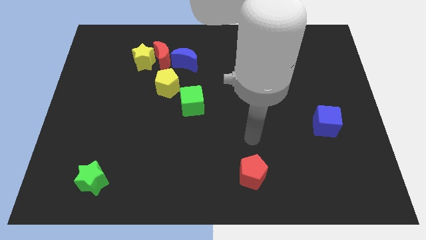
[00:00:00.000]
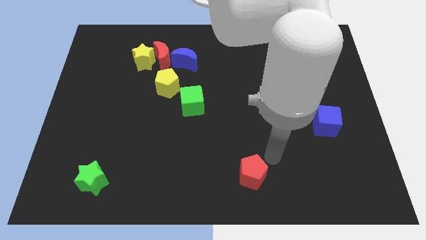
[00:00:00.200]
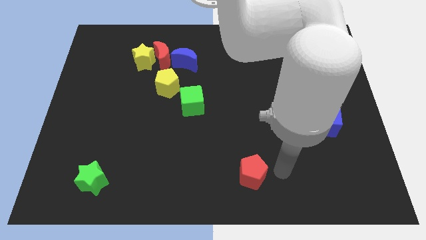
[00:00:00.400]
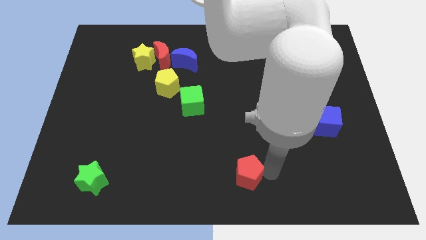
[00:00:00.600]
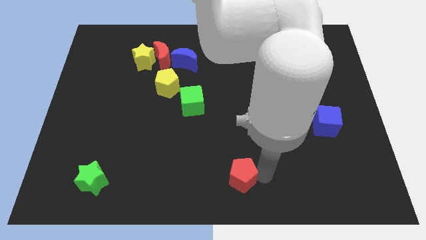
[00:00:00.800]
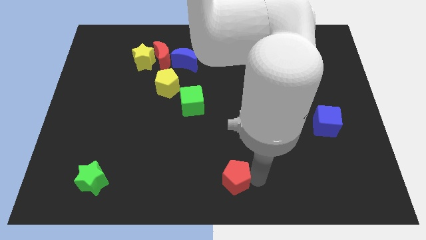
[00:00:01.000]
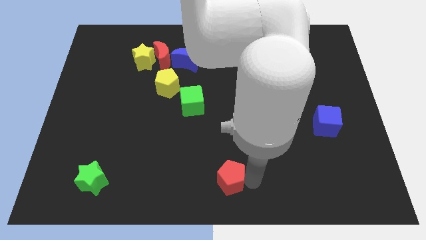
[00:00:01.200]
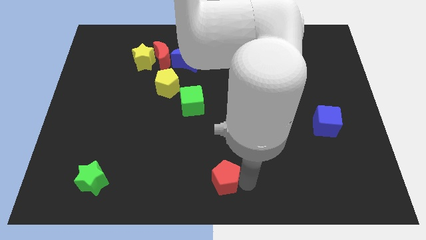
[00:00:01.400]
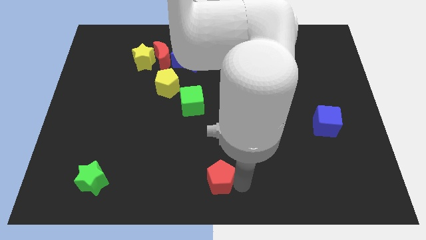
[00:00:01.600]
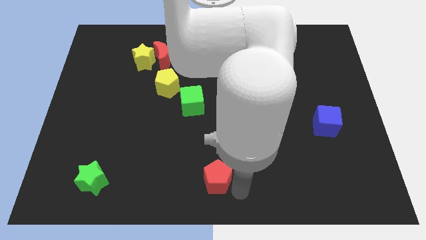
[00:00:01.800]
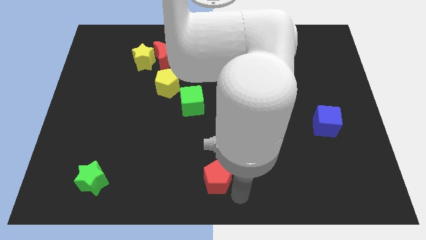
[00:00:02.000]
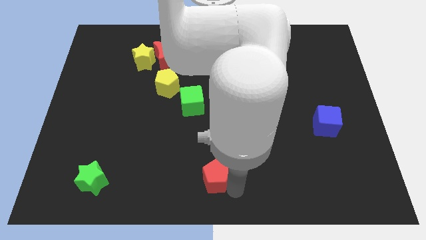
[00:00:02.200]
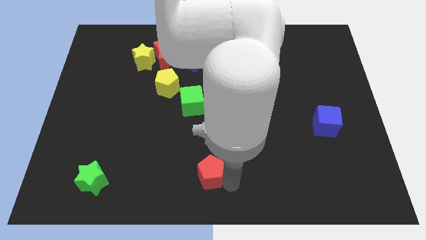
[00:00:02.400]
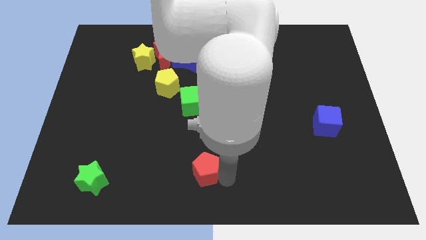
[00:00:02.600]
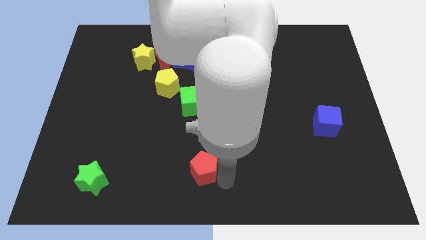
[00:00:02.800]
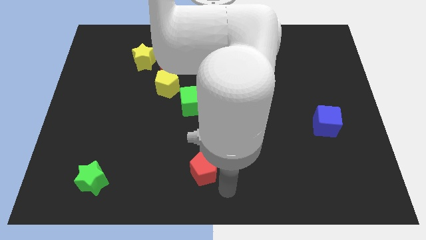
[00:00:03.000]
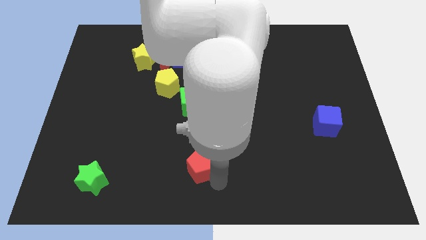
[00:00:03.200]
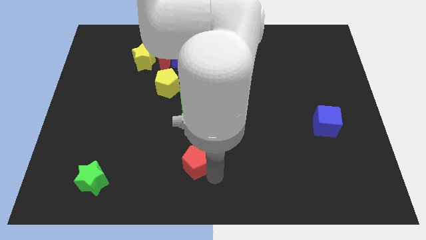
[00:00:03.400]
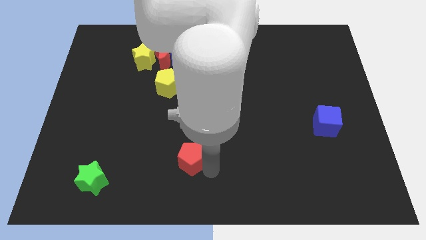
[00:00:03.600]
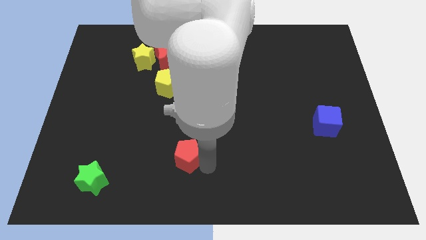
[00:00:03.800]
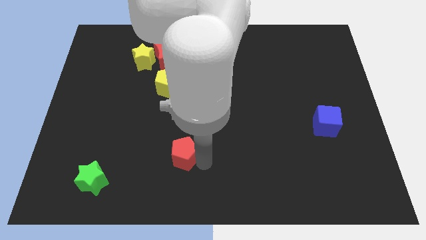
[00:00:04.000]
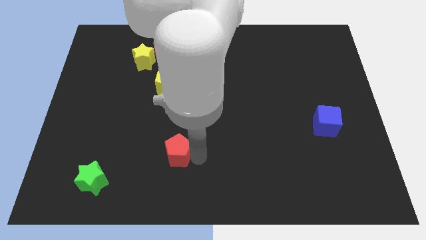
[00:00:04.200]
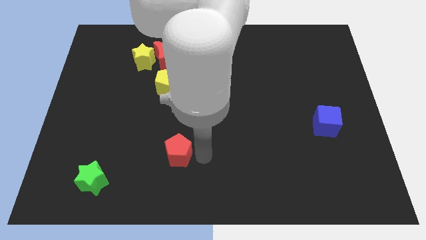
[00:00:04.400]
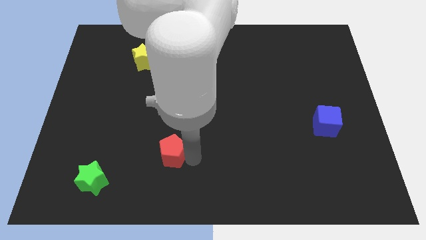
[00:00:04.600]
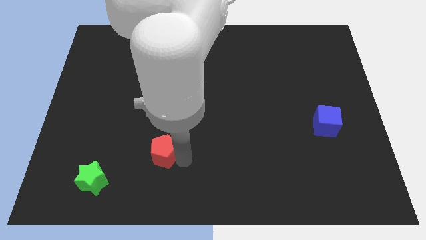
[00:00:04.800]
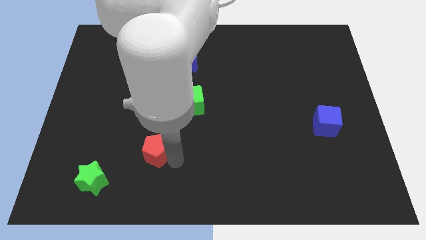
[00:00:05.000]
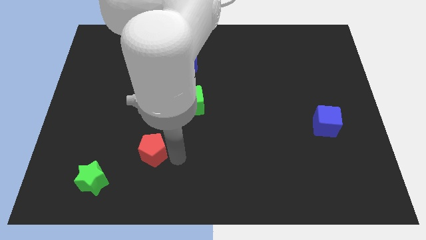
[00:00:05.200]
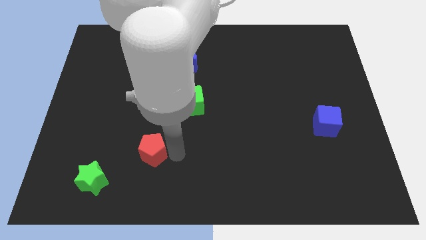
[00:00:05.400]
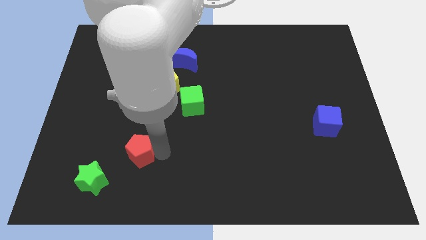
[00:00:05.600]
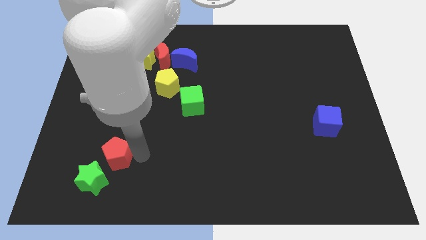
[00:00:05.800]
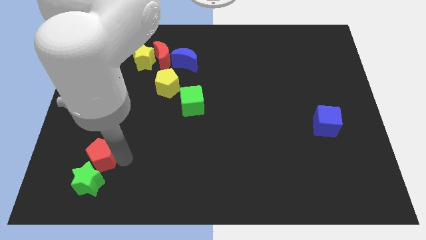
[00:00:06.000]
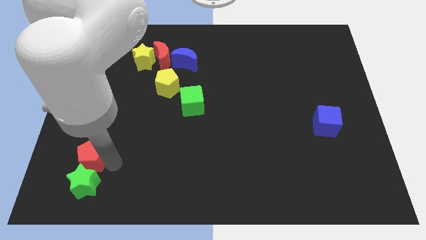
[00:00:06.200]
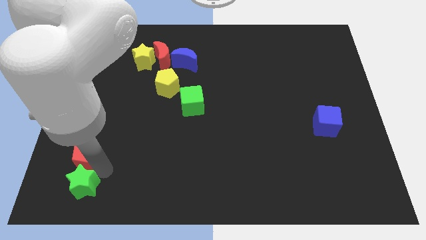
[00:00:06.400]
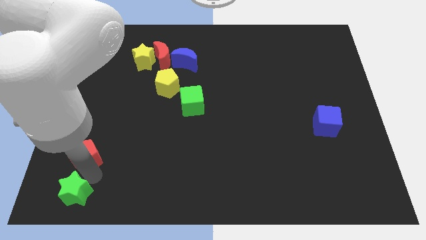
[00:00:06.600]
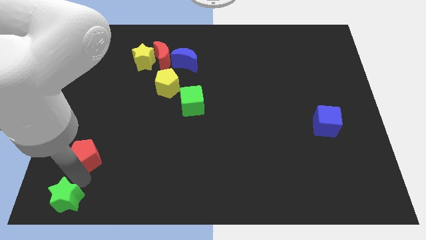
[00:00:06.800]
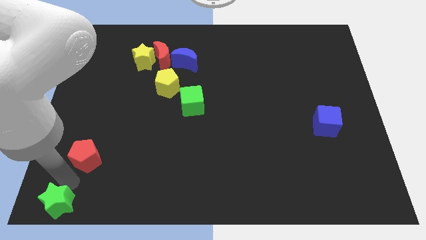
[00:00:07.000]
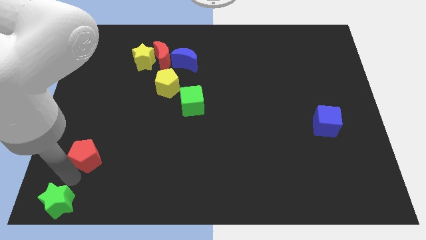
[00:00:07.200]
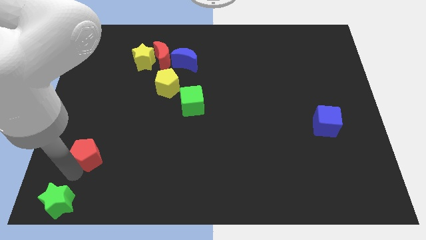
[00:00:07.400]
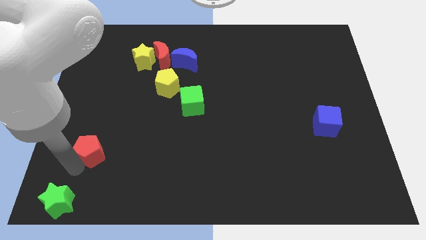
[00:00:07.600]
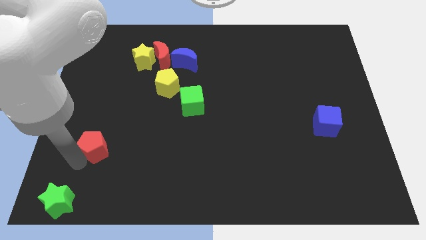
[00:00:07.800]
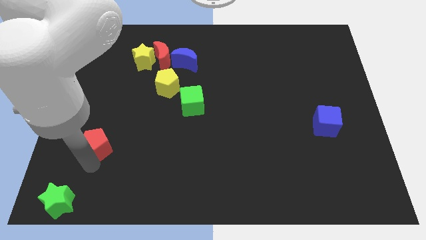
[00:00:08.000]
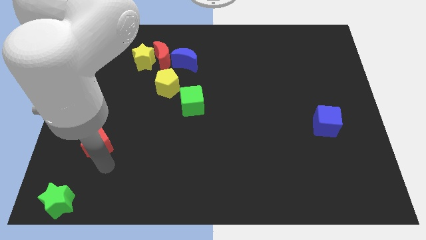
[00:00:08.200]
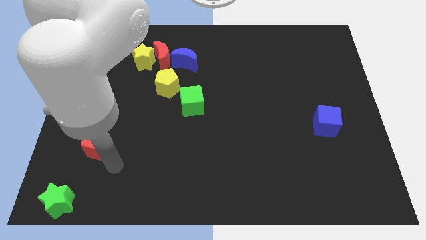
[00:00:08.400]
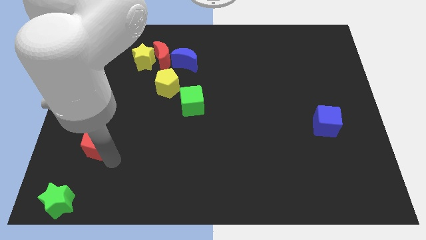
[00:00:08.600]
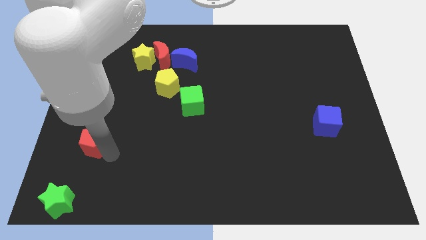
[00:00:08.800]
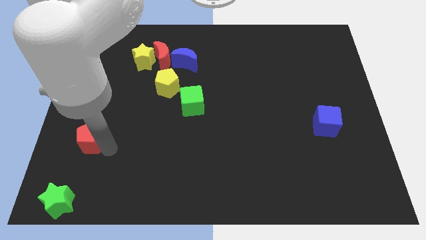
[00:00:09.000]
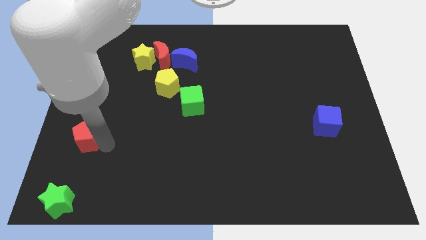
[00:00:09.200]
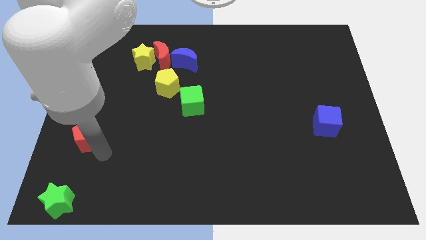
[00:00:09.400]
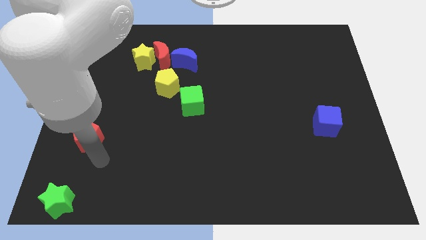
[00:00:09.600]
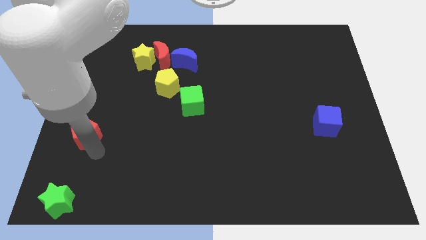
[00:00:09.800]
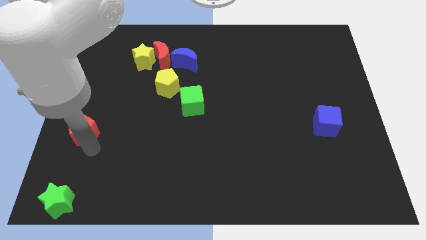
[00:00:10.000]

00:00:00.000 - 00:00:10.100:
slide the red pentagon to the left side of the board

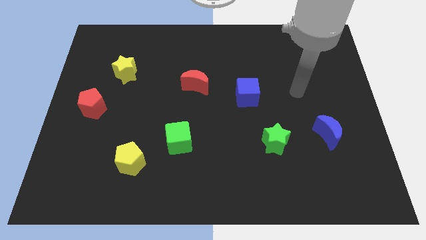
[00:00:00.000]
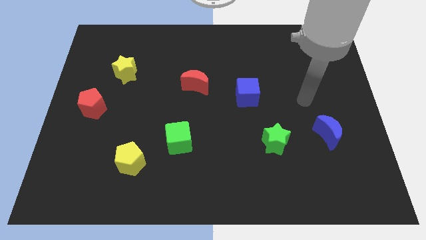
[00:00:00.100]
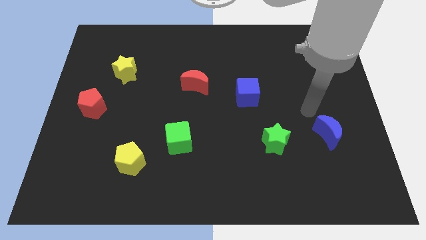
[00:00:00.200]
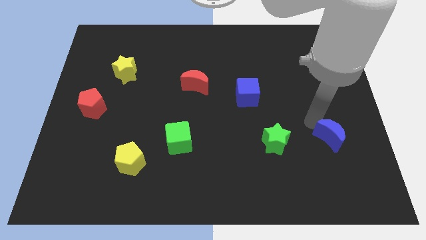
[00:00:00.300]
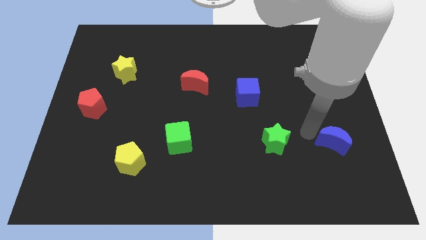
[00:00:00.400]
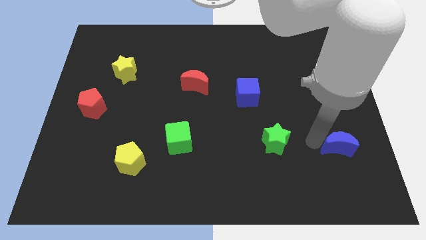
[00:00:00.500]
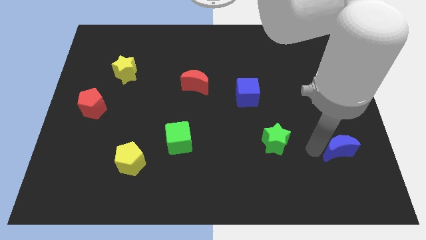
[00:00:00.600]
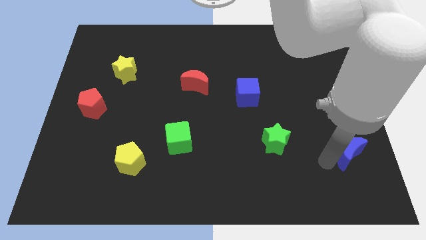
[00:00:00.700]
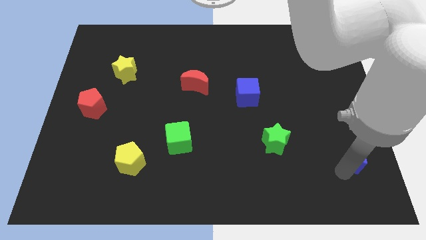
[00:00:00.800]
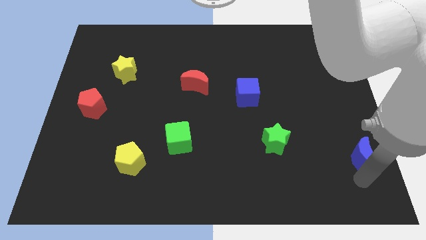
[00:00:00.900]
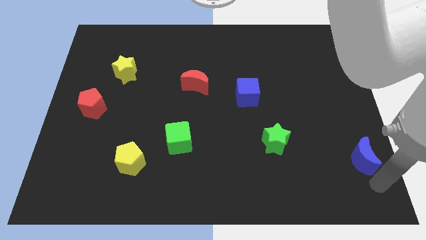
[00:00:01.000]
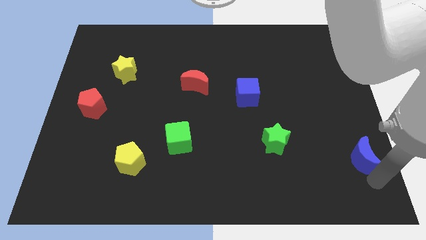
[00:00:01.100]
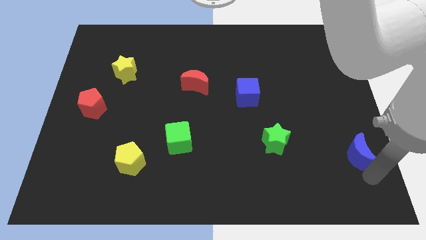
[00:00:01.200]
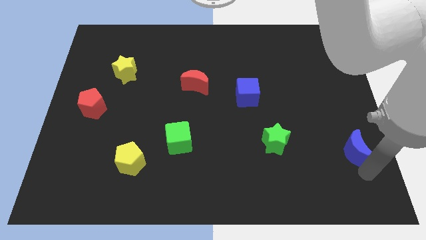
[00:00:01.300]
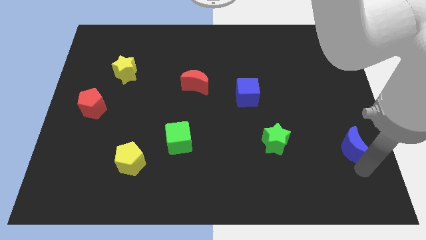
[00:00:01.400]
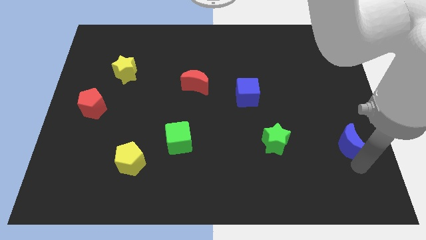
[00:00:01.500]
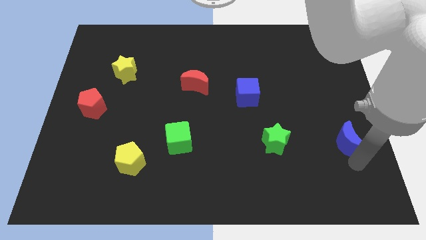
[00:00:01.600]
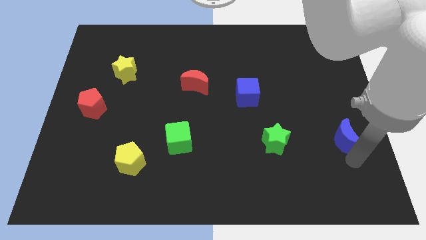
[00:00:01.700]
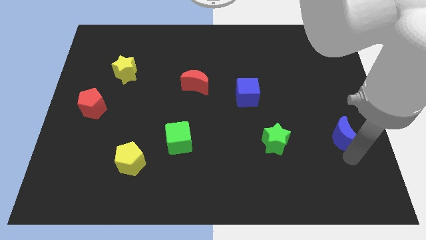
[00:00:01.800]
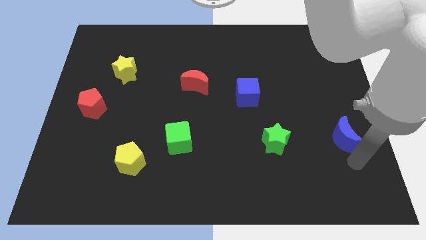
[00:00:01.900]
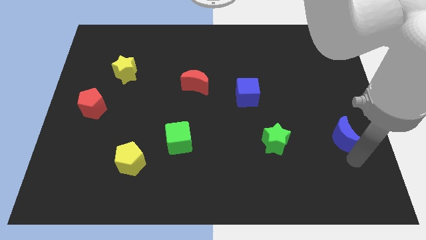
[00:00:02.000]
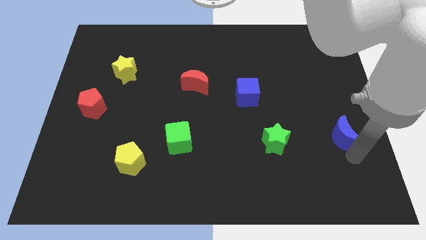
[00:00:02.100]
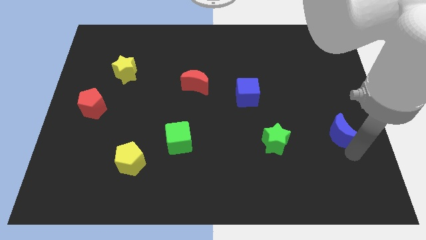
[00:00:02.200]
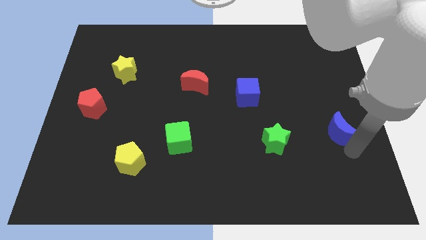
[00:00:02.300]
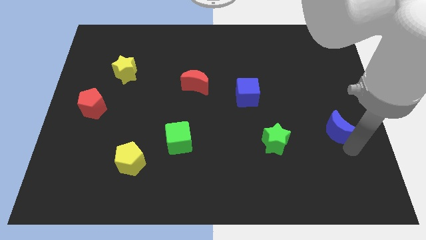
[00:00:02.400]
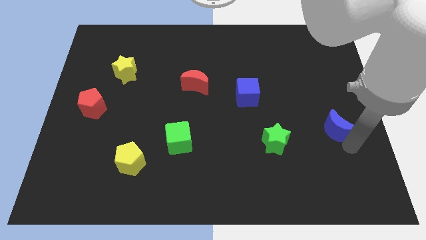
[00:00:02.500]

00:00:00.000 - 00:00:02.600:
slide the blue moon to the right side
